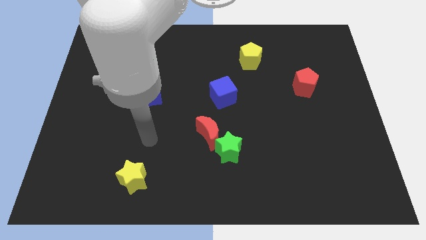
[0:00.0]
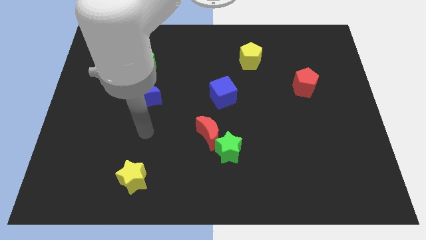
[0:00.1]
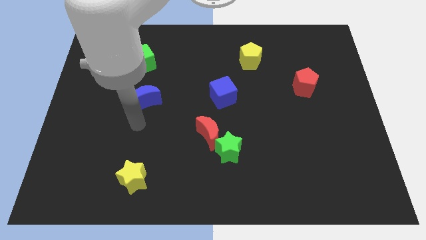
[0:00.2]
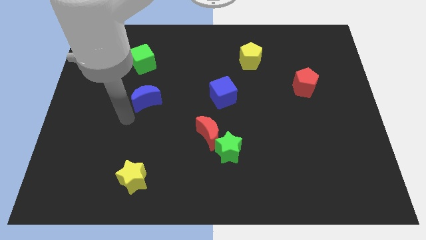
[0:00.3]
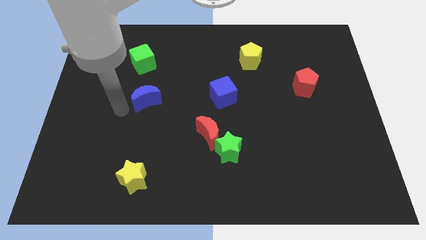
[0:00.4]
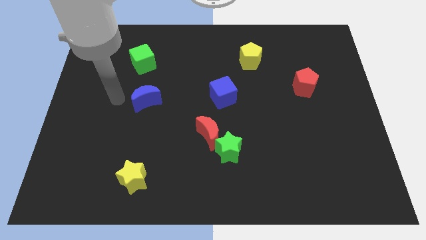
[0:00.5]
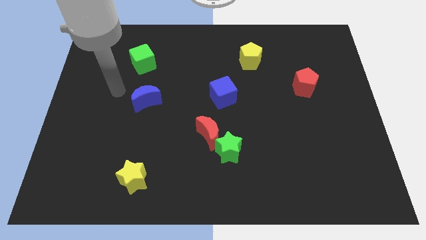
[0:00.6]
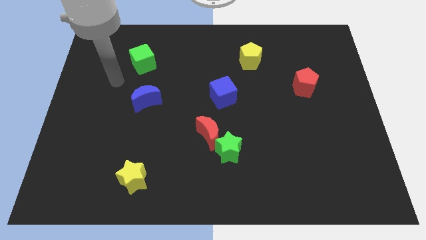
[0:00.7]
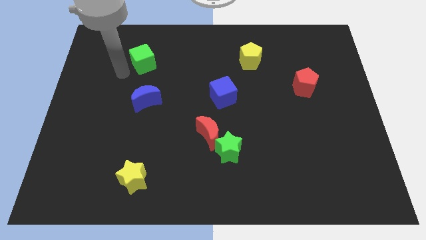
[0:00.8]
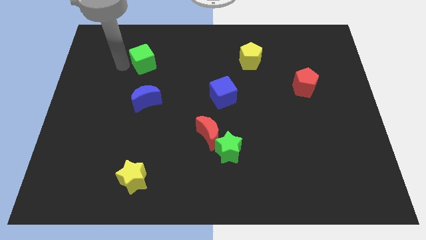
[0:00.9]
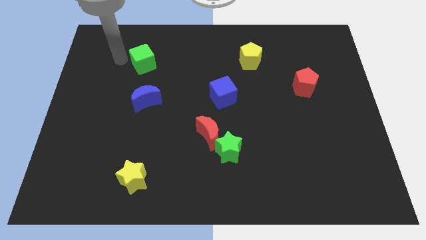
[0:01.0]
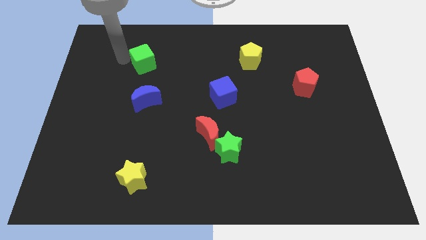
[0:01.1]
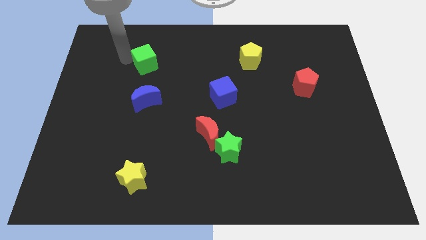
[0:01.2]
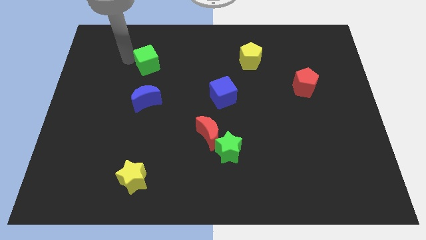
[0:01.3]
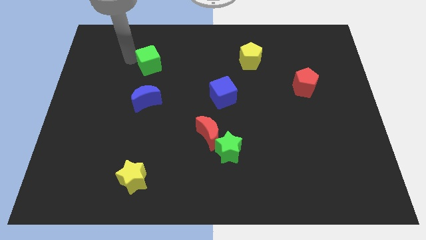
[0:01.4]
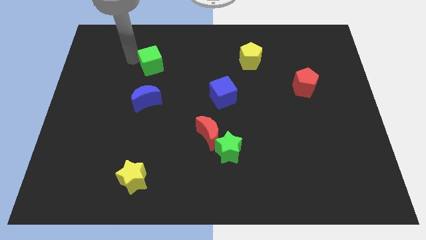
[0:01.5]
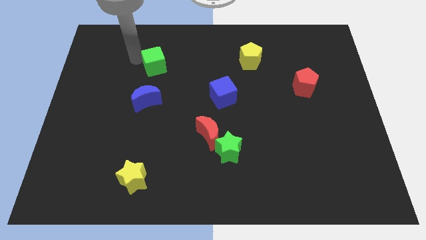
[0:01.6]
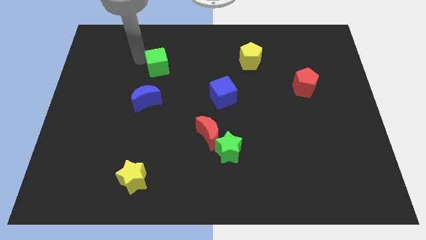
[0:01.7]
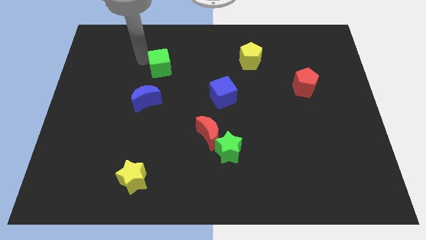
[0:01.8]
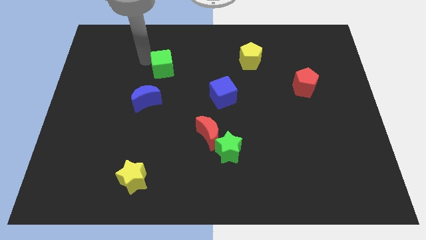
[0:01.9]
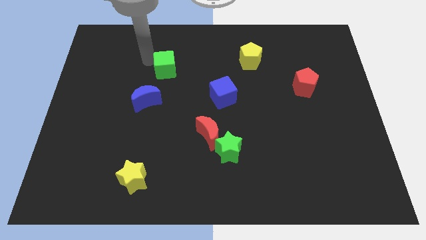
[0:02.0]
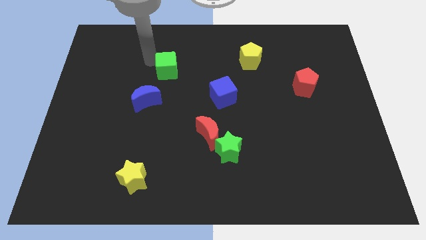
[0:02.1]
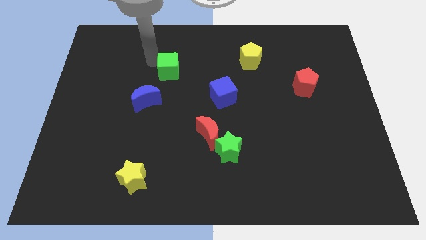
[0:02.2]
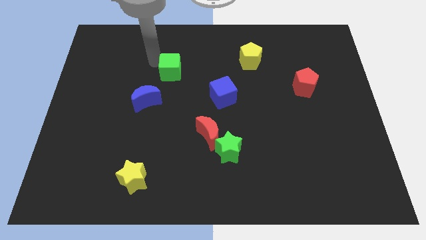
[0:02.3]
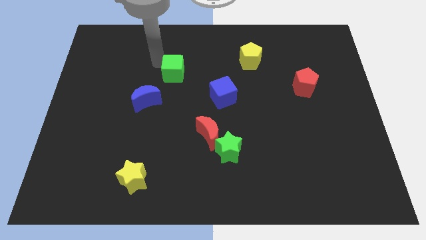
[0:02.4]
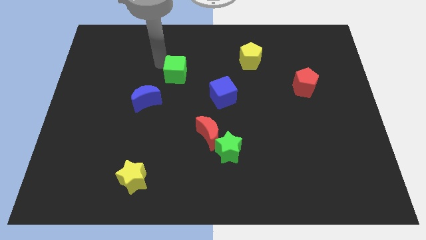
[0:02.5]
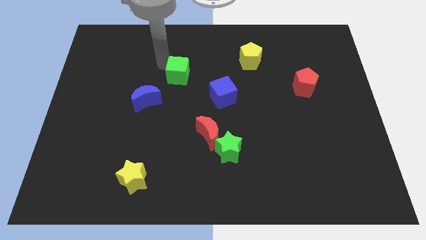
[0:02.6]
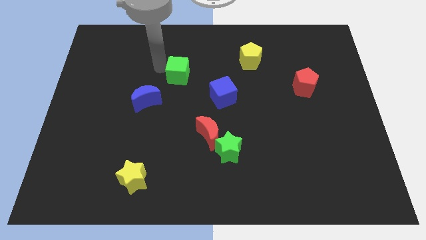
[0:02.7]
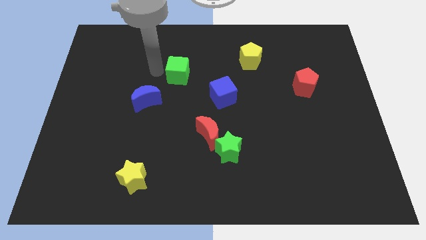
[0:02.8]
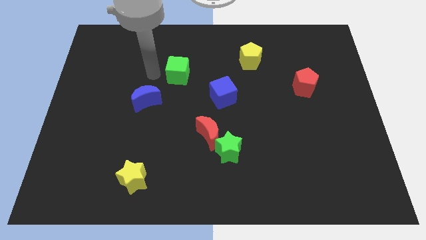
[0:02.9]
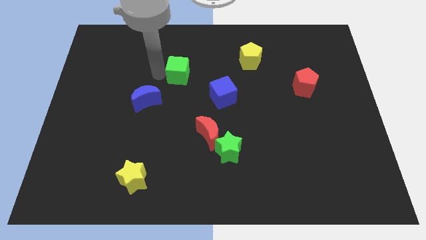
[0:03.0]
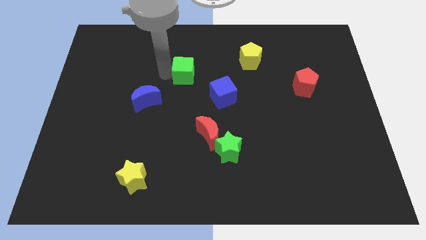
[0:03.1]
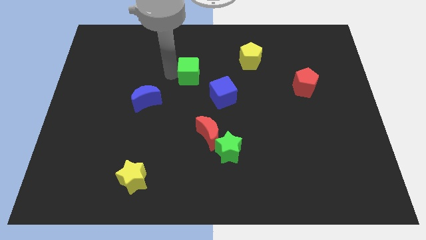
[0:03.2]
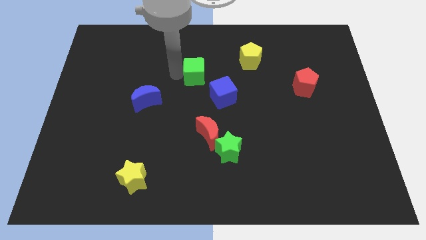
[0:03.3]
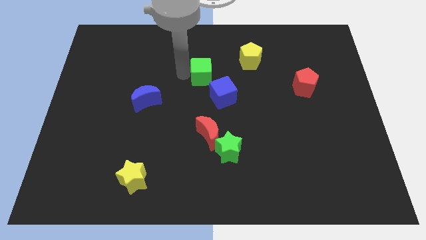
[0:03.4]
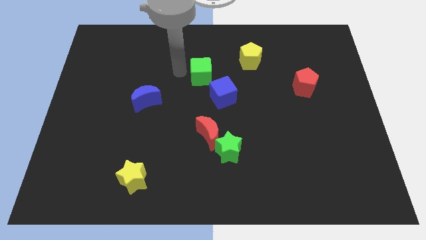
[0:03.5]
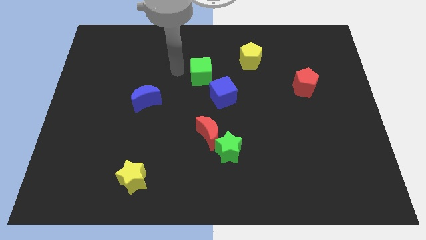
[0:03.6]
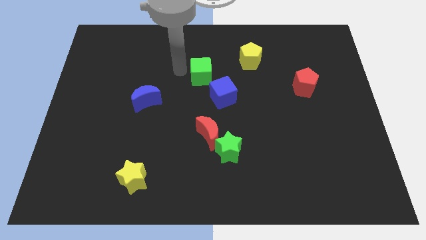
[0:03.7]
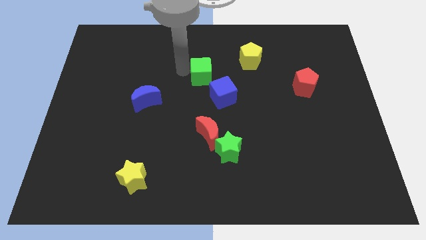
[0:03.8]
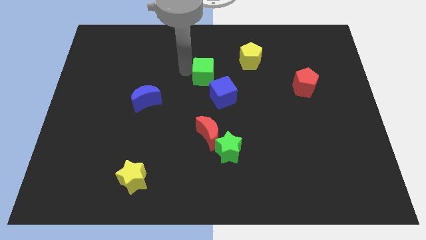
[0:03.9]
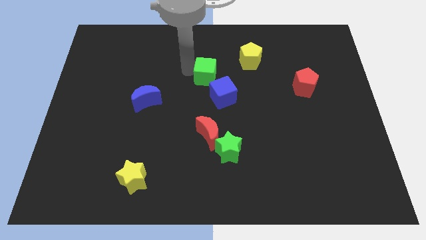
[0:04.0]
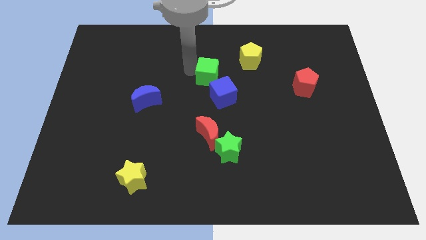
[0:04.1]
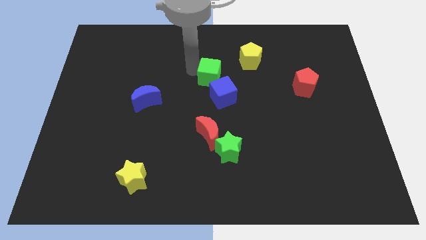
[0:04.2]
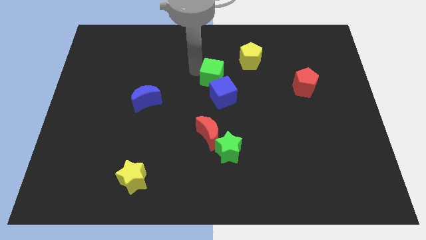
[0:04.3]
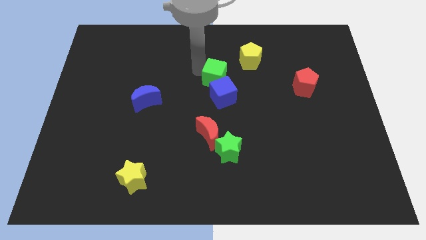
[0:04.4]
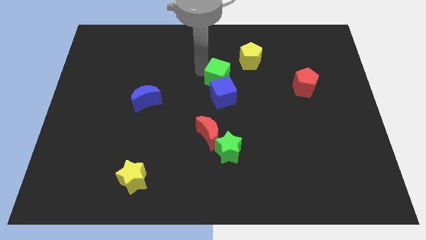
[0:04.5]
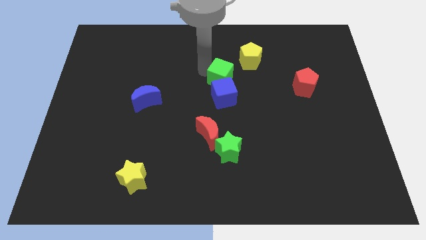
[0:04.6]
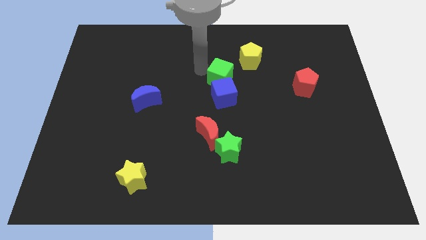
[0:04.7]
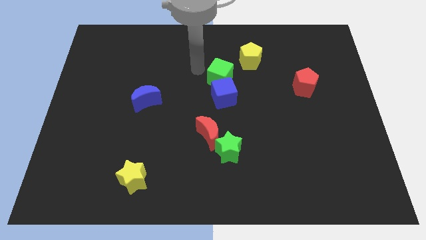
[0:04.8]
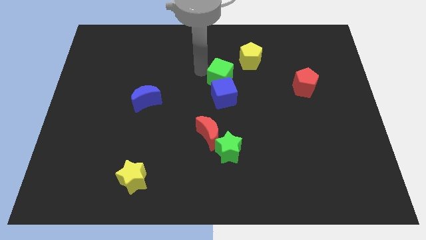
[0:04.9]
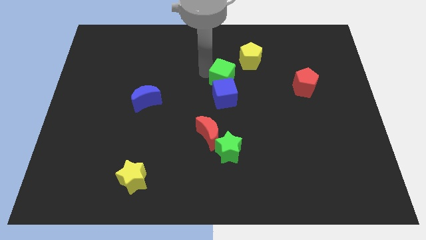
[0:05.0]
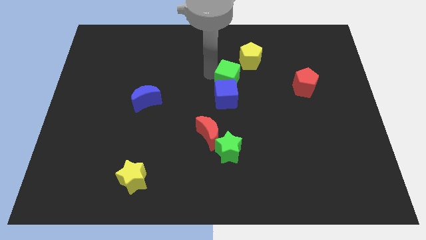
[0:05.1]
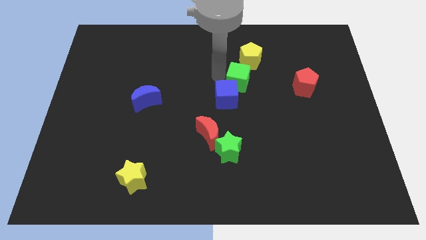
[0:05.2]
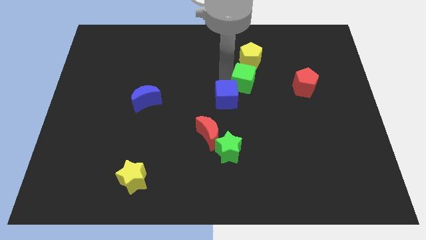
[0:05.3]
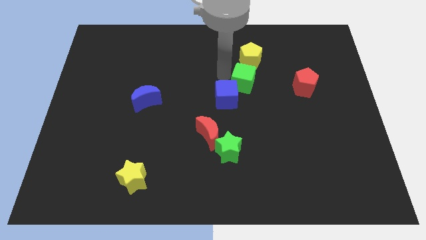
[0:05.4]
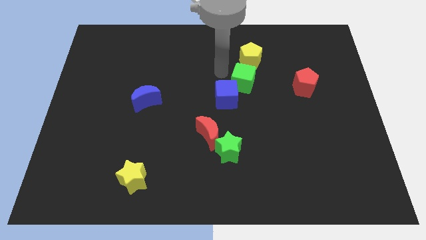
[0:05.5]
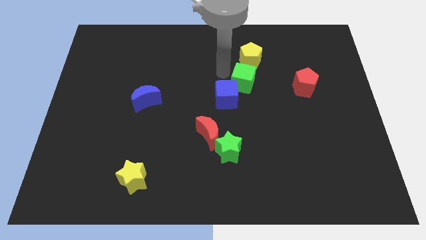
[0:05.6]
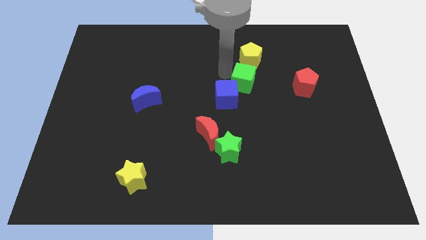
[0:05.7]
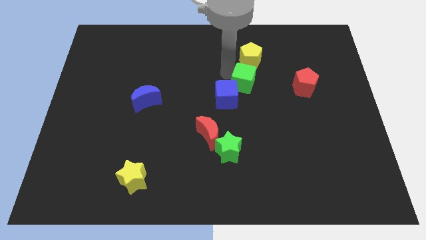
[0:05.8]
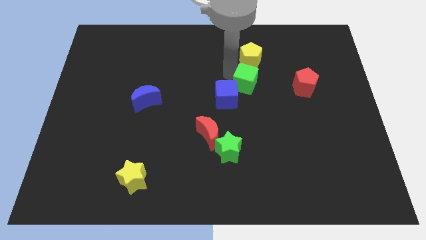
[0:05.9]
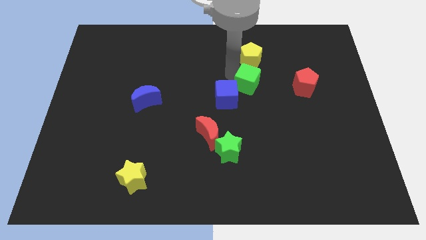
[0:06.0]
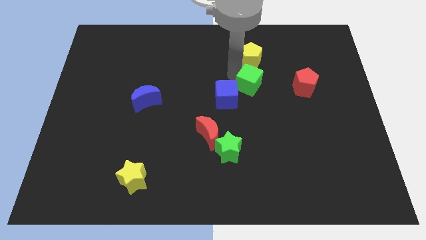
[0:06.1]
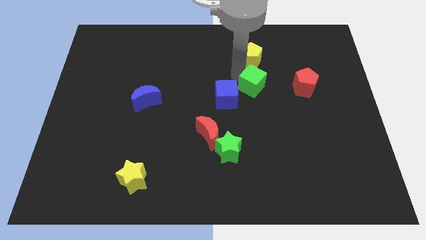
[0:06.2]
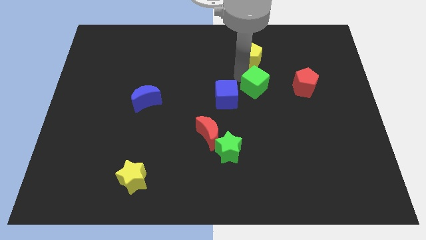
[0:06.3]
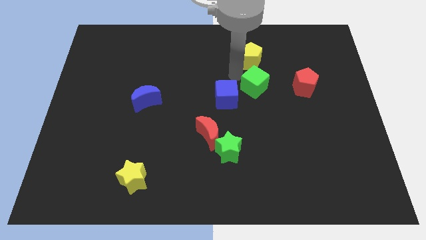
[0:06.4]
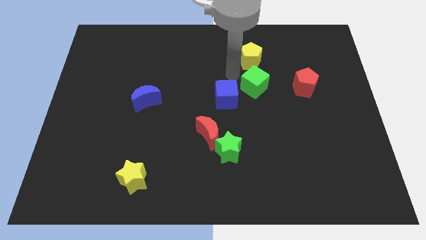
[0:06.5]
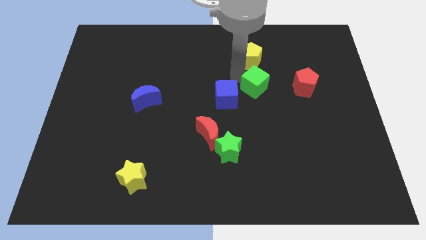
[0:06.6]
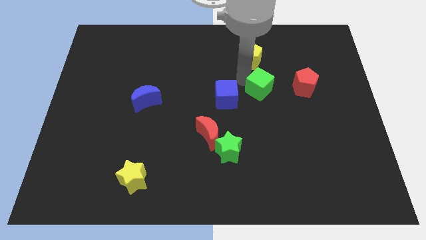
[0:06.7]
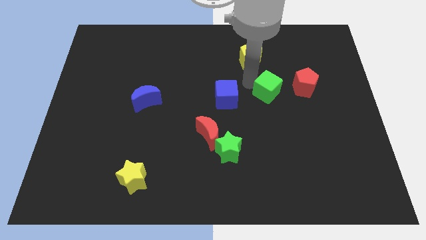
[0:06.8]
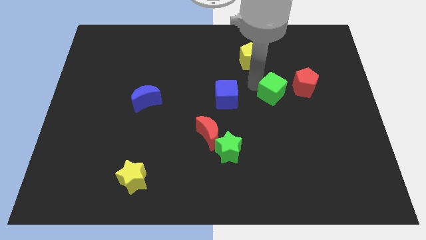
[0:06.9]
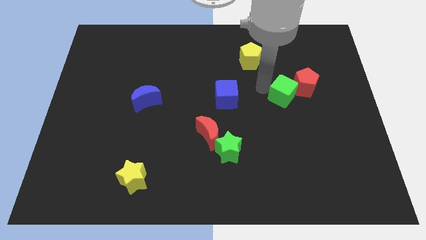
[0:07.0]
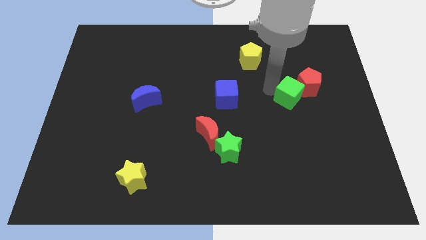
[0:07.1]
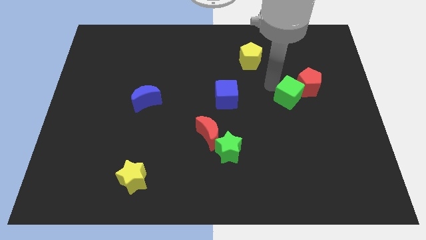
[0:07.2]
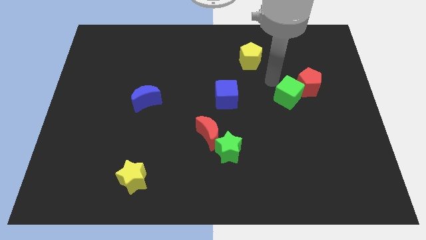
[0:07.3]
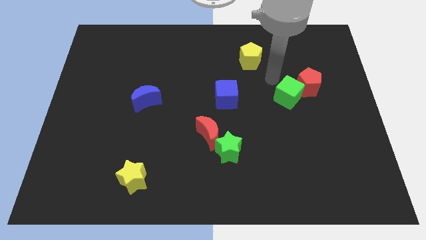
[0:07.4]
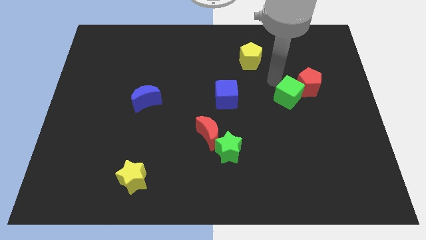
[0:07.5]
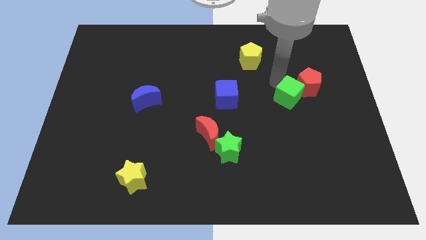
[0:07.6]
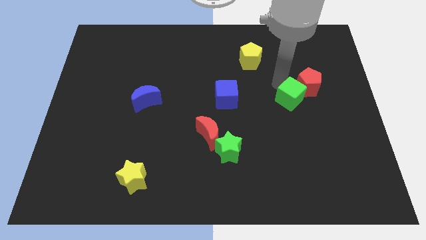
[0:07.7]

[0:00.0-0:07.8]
slide the green cube to the bottom side of the red pentagon
